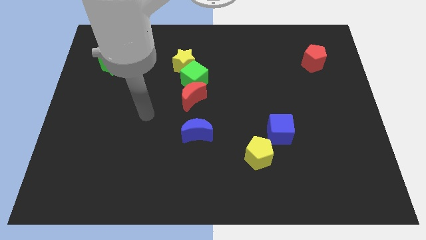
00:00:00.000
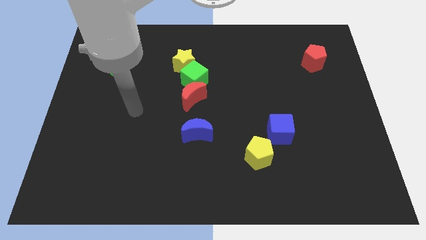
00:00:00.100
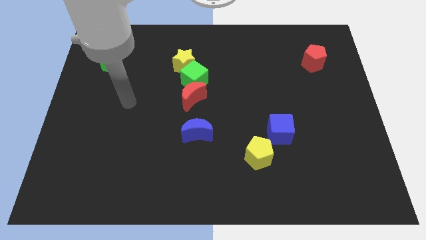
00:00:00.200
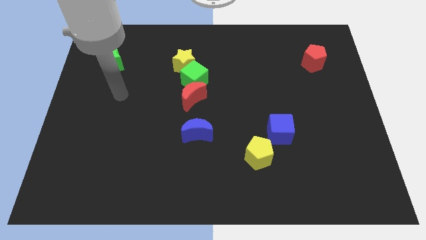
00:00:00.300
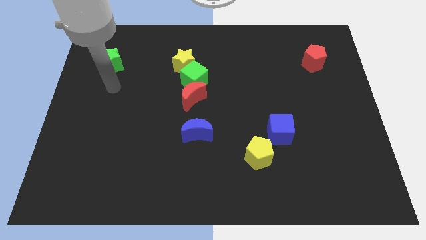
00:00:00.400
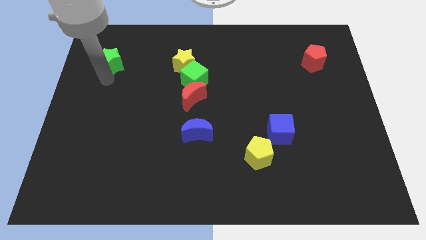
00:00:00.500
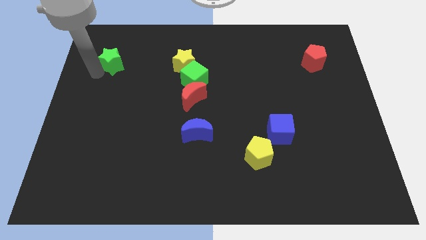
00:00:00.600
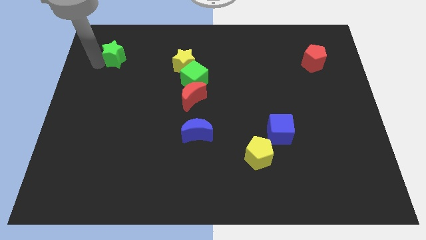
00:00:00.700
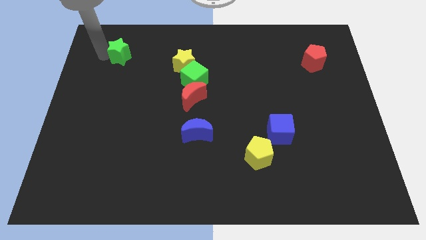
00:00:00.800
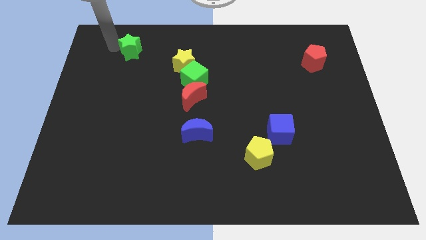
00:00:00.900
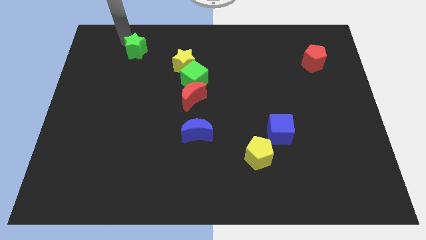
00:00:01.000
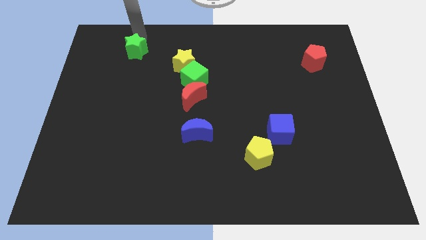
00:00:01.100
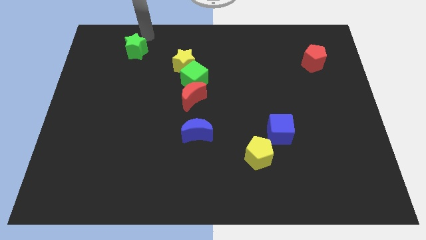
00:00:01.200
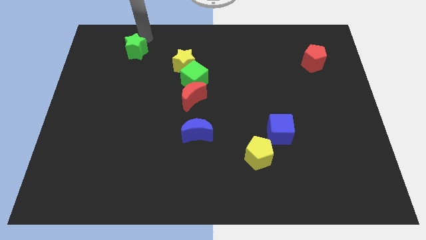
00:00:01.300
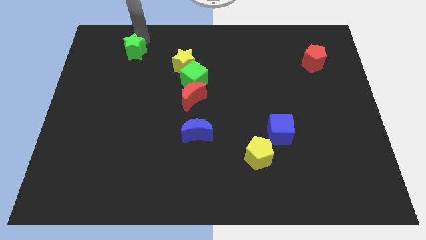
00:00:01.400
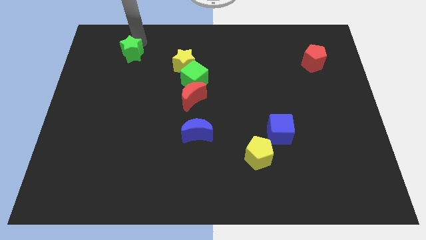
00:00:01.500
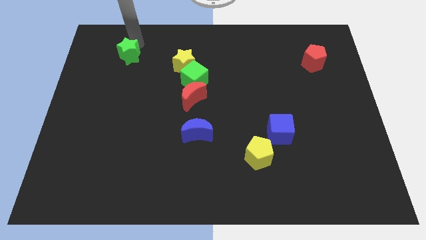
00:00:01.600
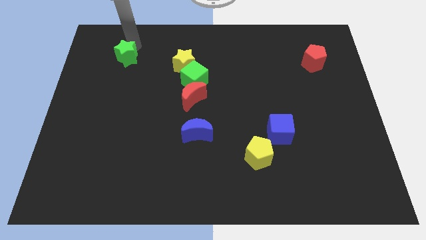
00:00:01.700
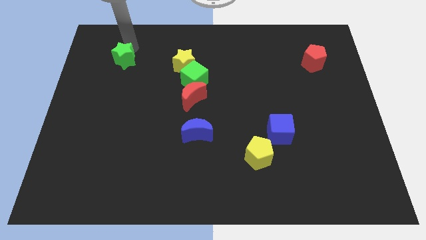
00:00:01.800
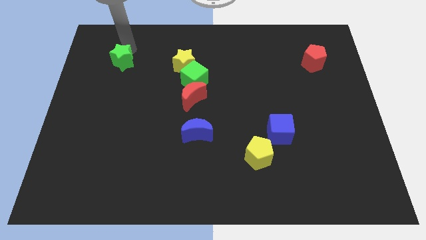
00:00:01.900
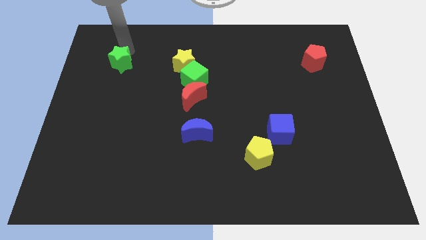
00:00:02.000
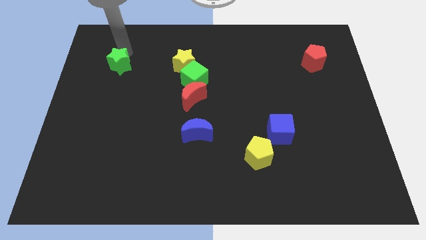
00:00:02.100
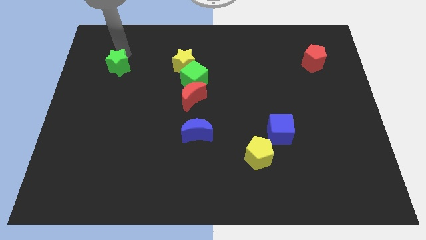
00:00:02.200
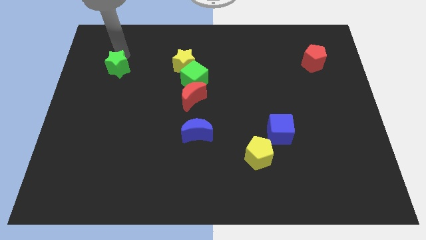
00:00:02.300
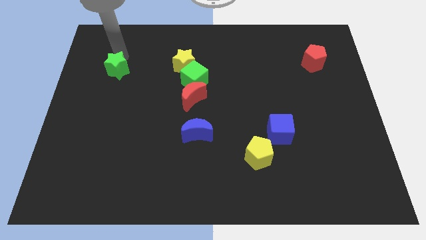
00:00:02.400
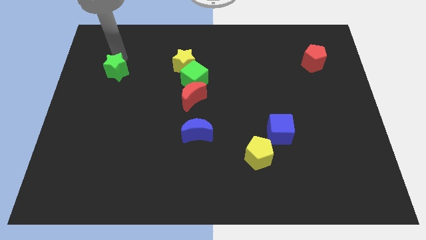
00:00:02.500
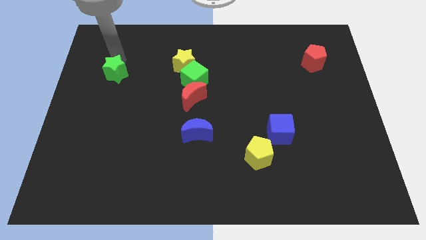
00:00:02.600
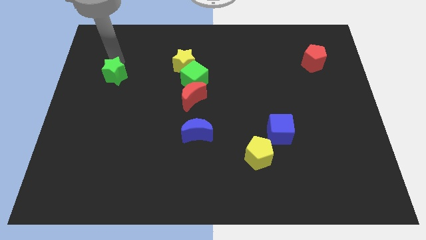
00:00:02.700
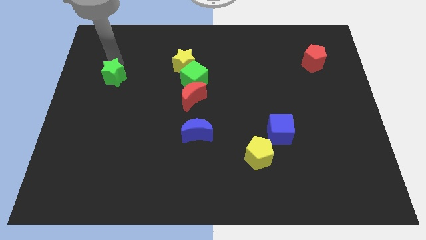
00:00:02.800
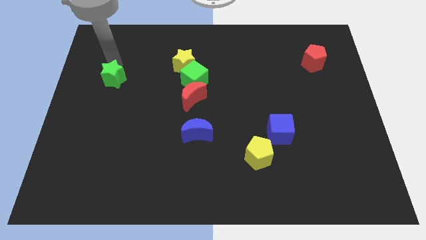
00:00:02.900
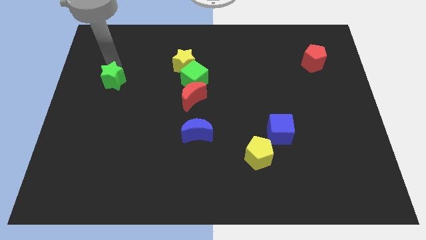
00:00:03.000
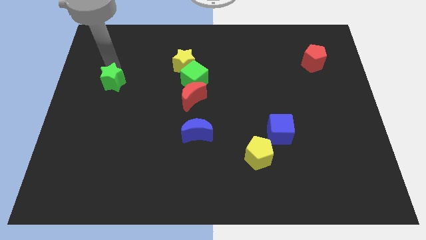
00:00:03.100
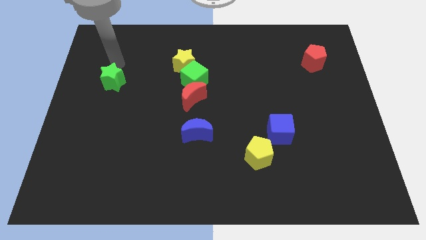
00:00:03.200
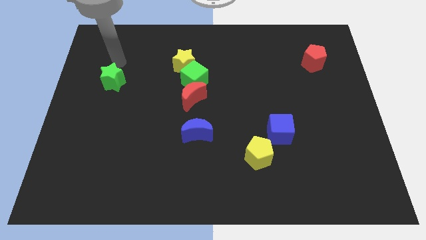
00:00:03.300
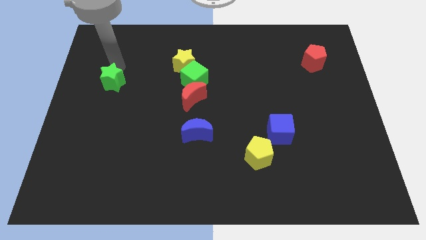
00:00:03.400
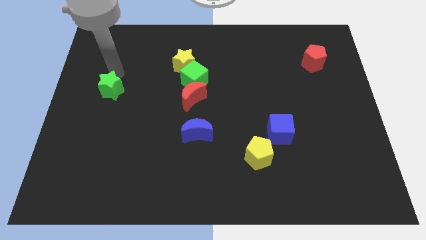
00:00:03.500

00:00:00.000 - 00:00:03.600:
push the green star somewhat down

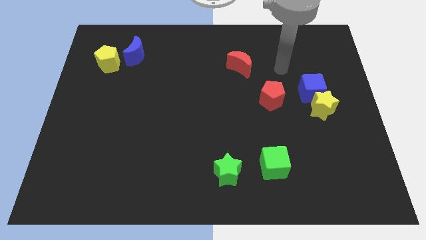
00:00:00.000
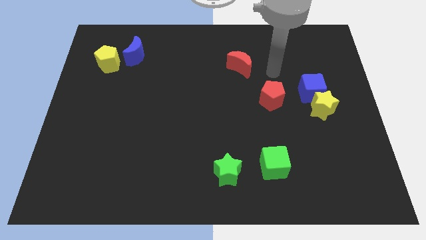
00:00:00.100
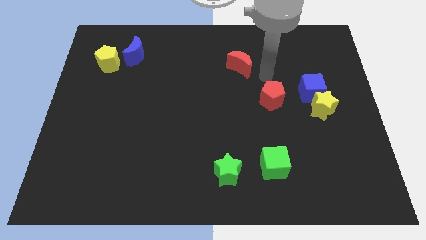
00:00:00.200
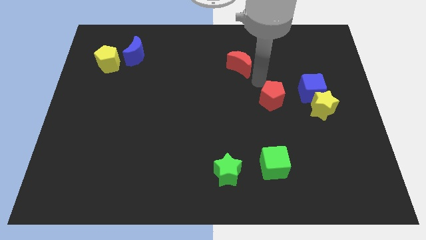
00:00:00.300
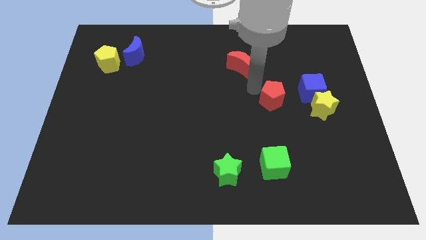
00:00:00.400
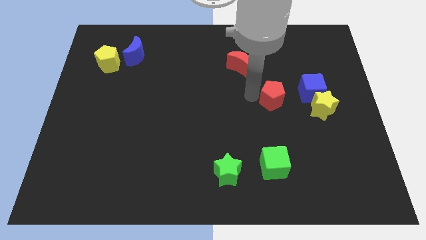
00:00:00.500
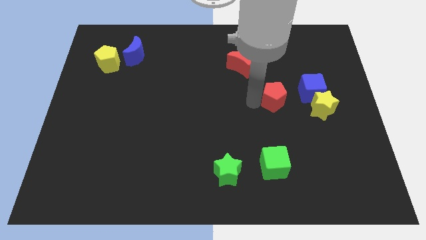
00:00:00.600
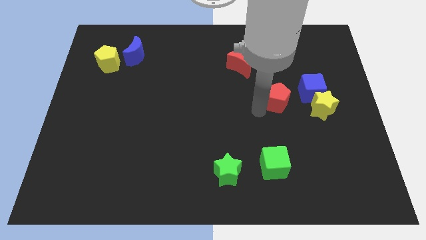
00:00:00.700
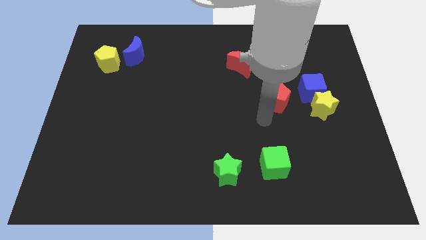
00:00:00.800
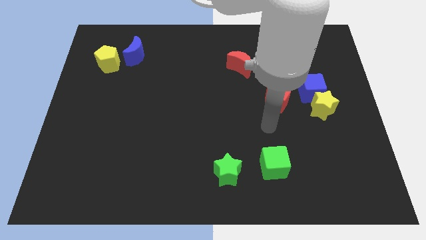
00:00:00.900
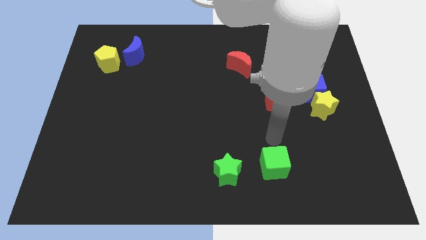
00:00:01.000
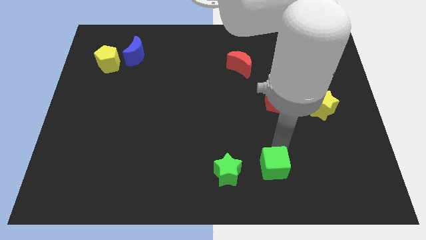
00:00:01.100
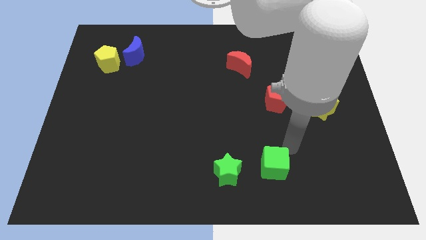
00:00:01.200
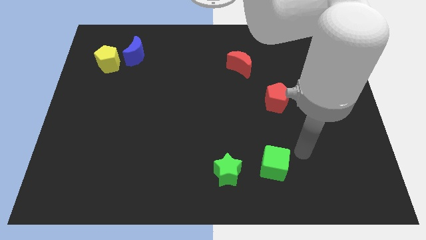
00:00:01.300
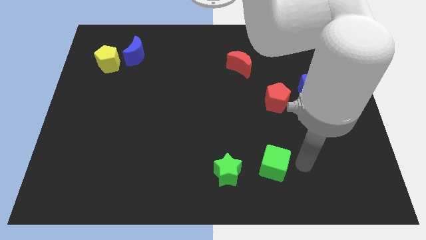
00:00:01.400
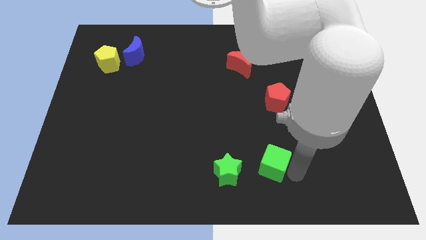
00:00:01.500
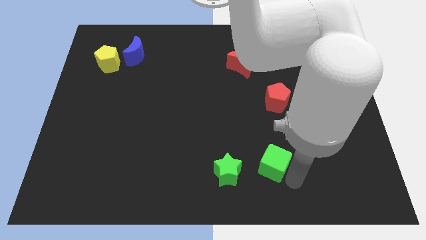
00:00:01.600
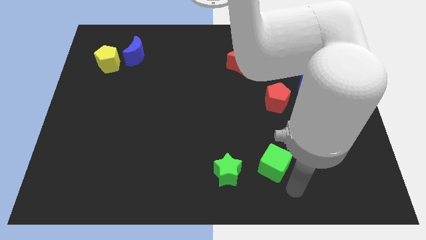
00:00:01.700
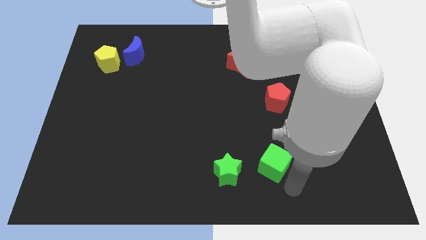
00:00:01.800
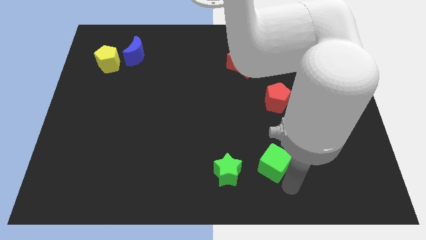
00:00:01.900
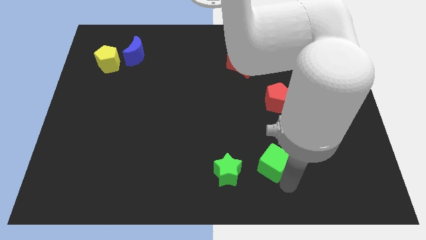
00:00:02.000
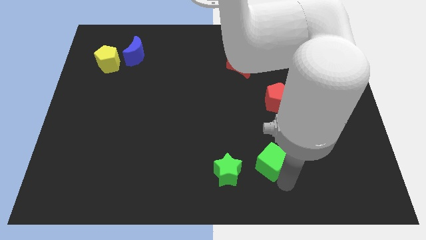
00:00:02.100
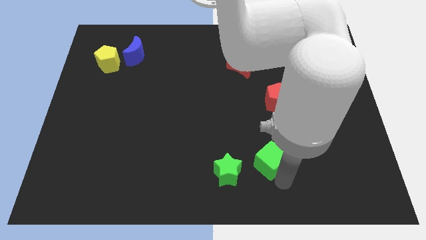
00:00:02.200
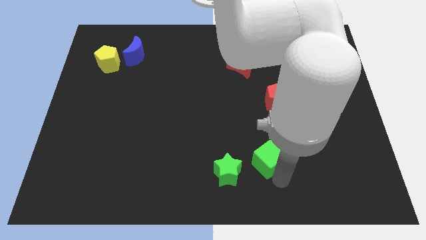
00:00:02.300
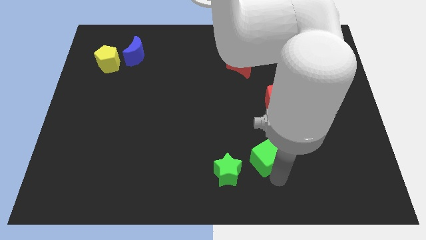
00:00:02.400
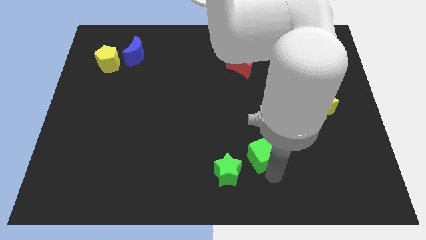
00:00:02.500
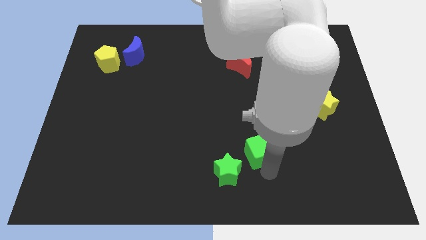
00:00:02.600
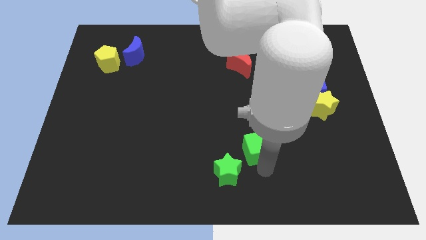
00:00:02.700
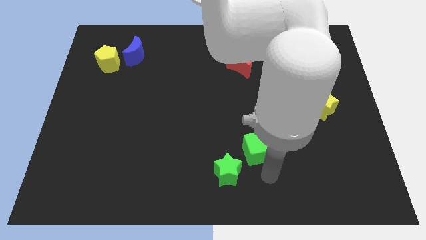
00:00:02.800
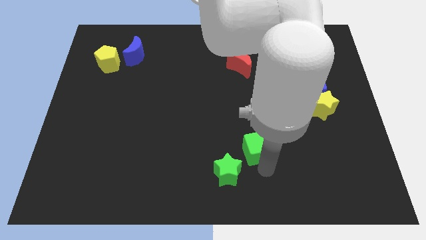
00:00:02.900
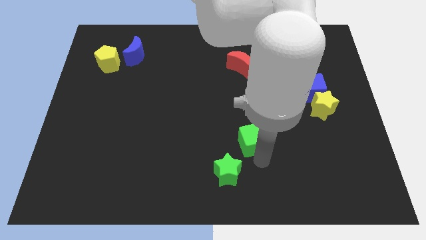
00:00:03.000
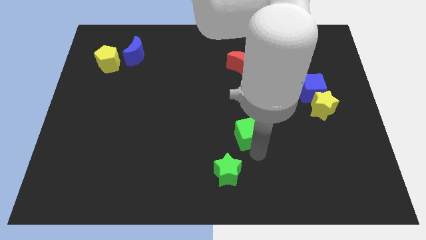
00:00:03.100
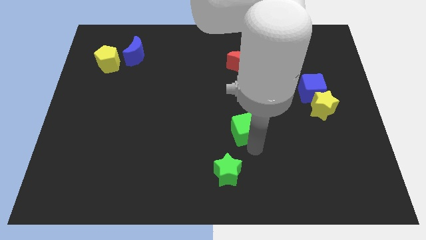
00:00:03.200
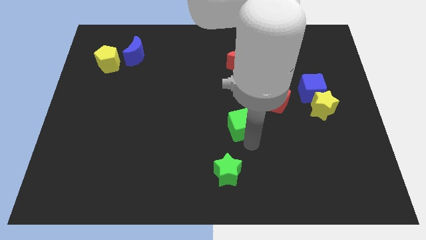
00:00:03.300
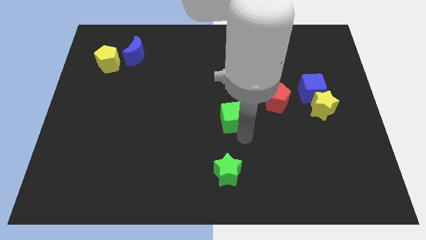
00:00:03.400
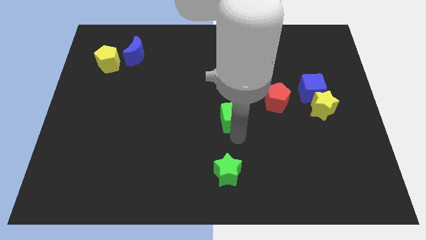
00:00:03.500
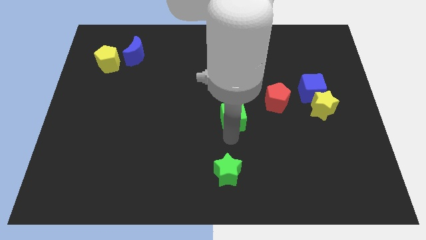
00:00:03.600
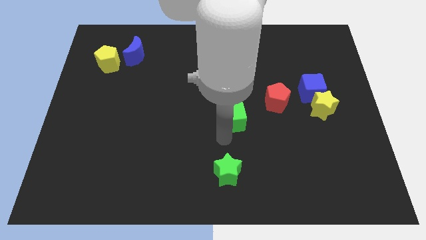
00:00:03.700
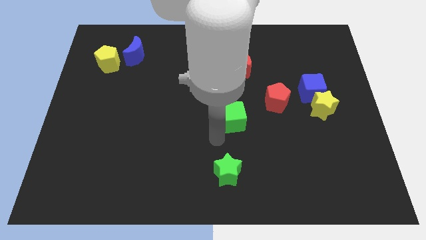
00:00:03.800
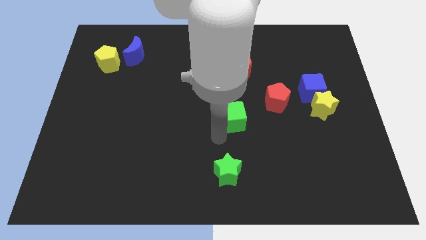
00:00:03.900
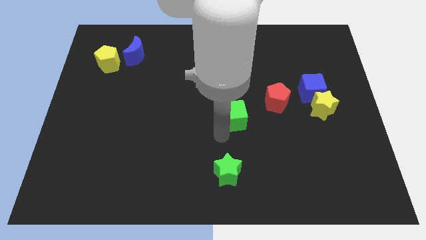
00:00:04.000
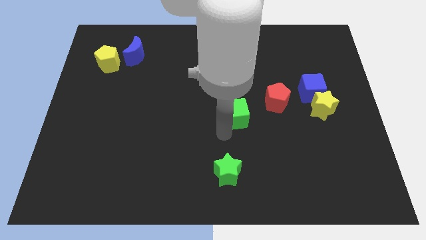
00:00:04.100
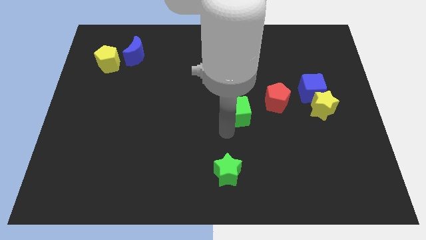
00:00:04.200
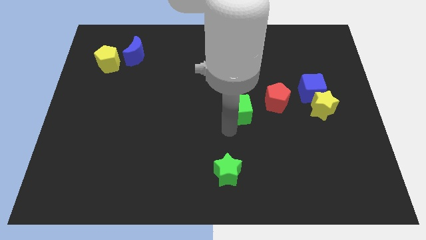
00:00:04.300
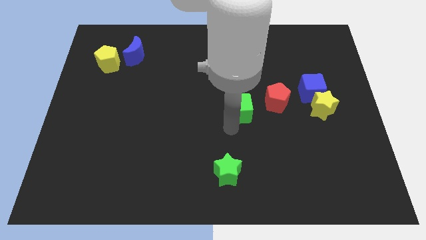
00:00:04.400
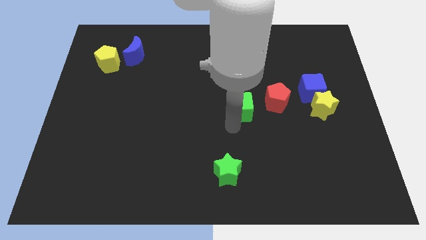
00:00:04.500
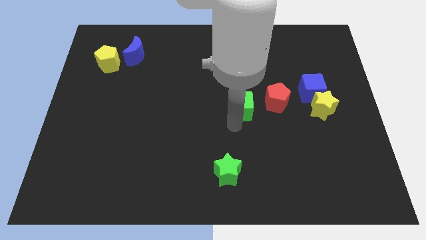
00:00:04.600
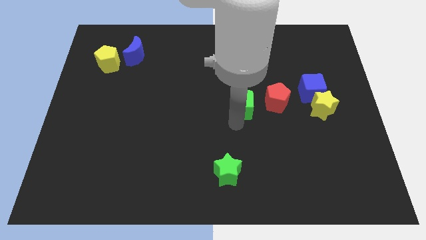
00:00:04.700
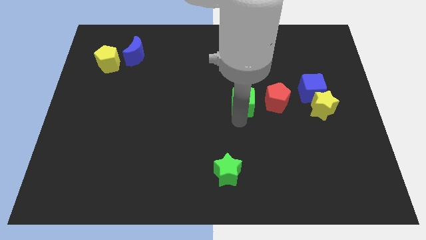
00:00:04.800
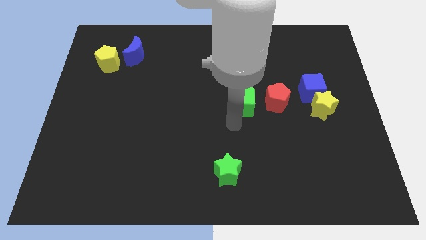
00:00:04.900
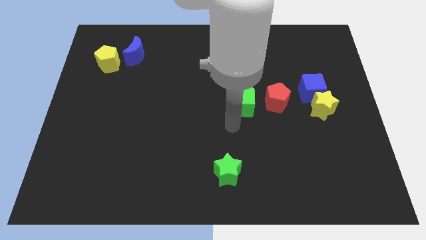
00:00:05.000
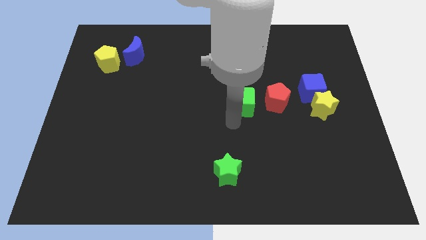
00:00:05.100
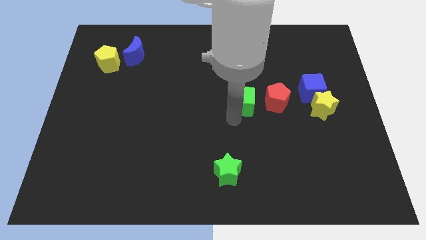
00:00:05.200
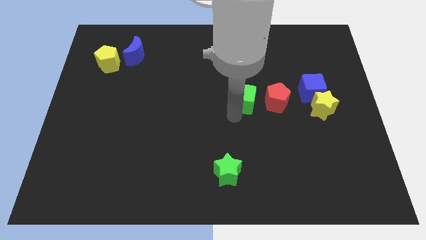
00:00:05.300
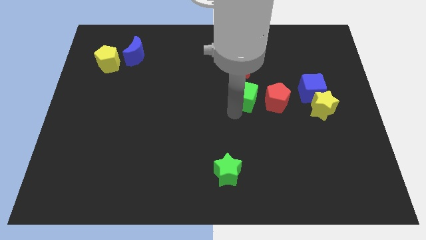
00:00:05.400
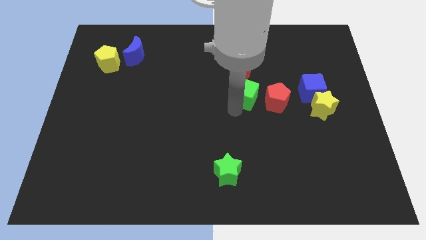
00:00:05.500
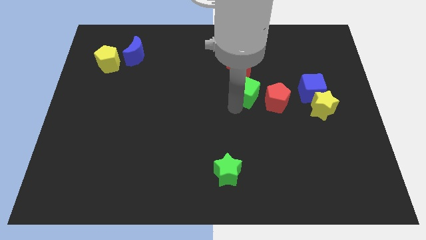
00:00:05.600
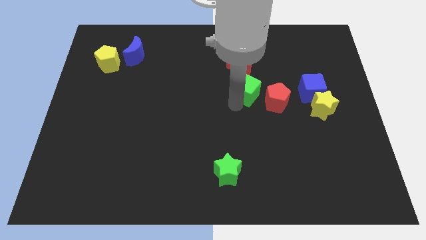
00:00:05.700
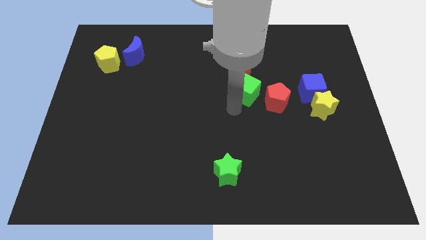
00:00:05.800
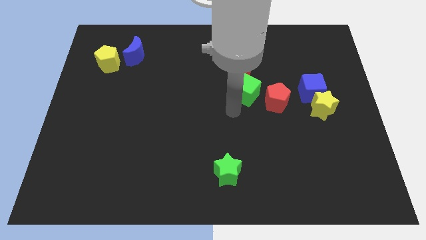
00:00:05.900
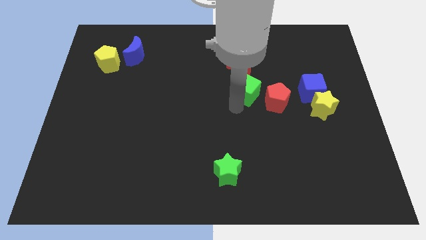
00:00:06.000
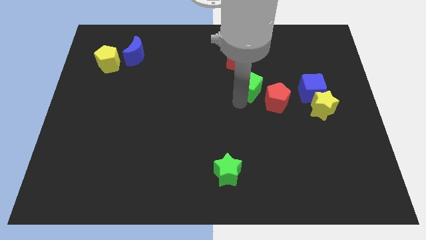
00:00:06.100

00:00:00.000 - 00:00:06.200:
push the green cube upwards
